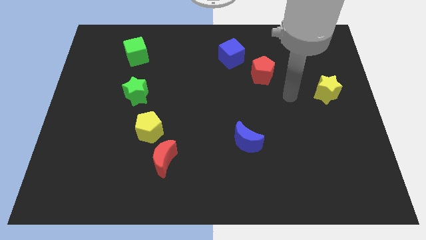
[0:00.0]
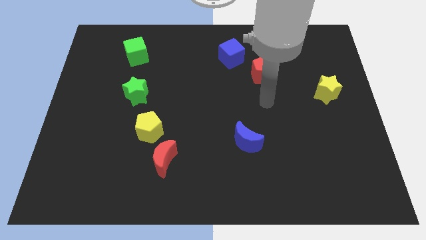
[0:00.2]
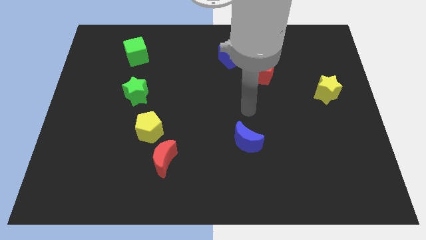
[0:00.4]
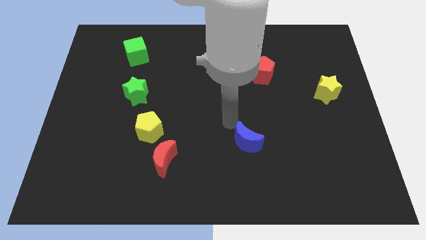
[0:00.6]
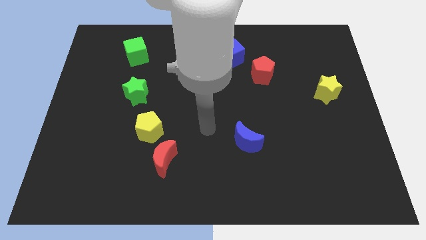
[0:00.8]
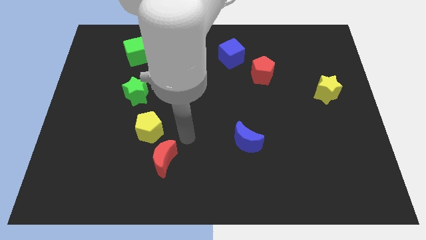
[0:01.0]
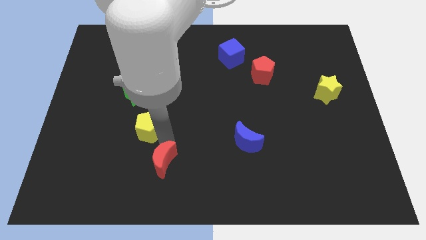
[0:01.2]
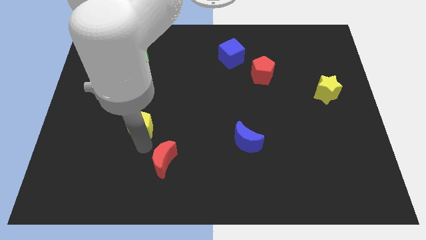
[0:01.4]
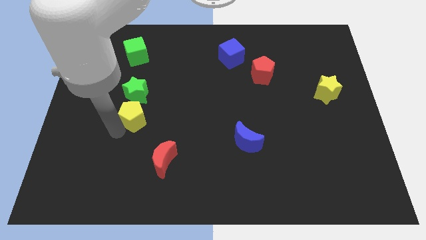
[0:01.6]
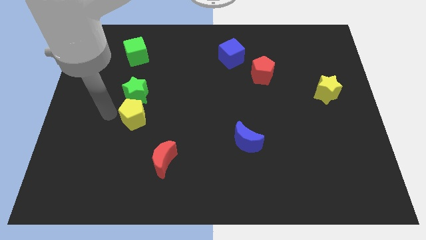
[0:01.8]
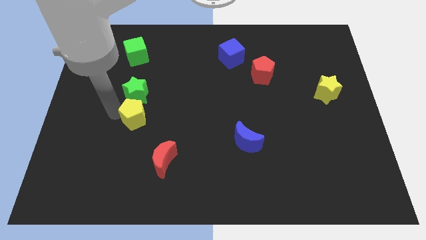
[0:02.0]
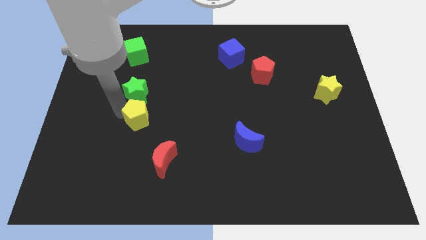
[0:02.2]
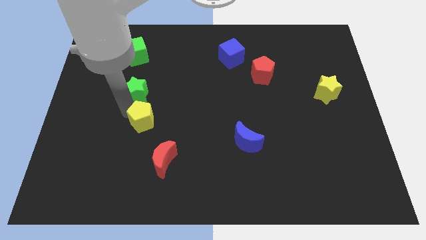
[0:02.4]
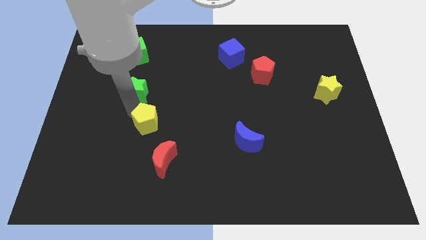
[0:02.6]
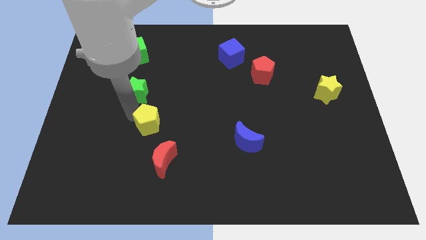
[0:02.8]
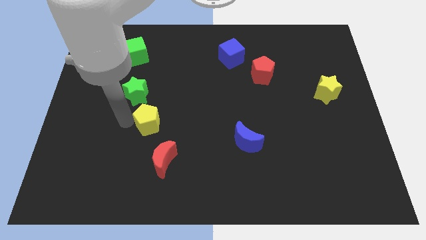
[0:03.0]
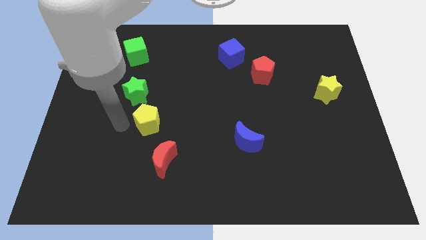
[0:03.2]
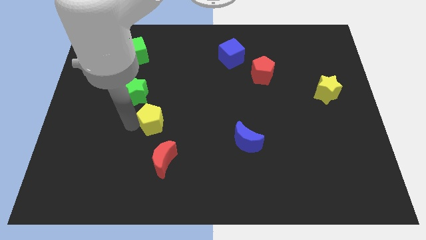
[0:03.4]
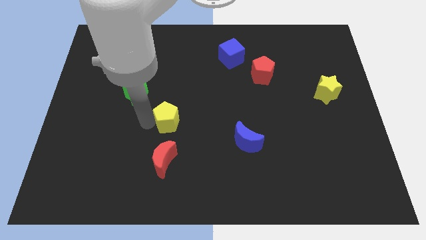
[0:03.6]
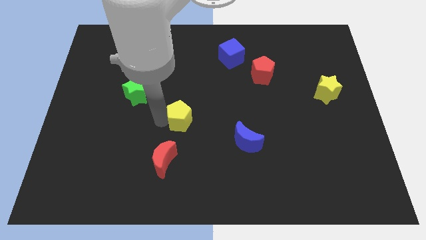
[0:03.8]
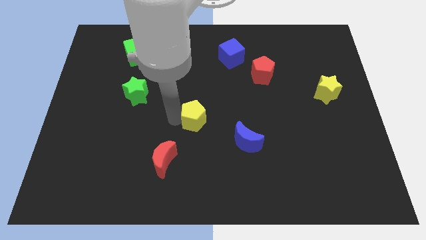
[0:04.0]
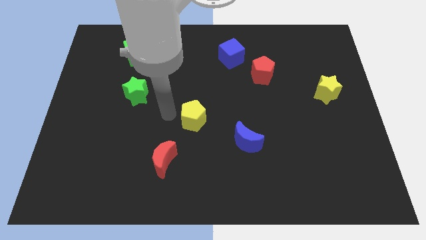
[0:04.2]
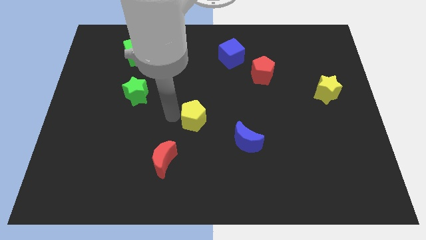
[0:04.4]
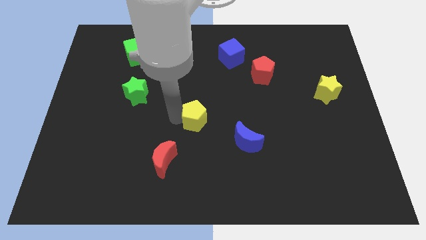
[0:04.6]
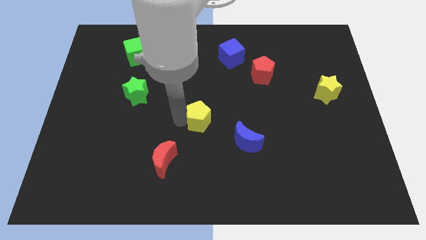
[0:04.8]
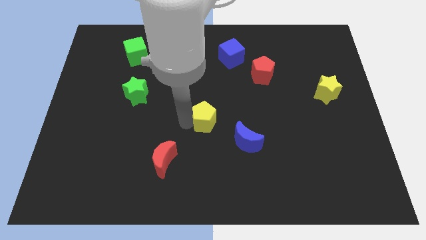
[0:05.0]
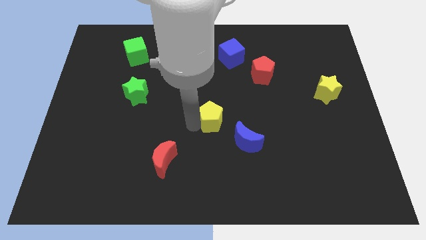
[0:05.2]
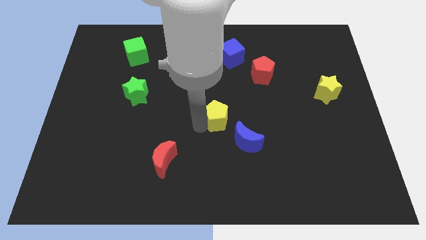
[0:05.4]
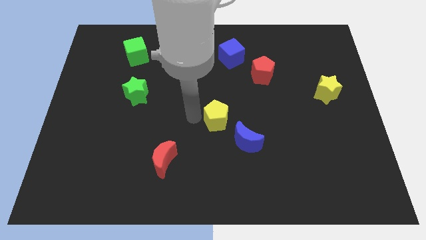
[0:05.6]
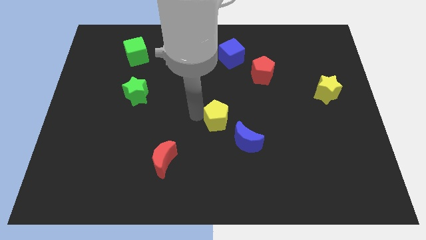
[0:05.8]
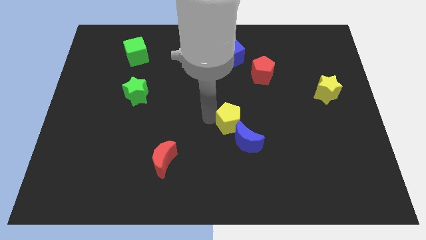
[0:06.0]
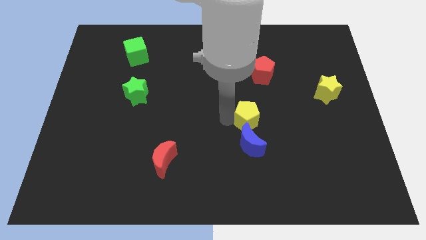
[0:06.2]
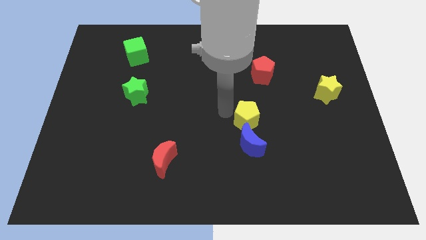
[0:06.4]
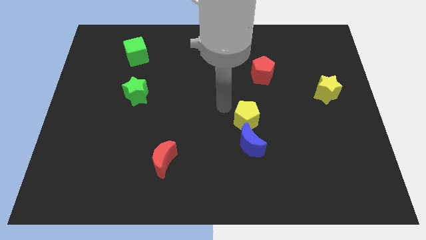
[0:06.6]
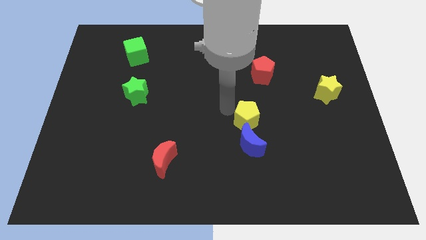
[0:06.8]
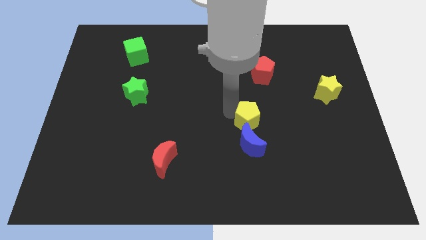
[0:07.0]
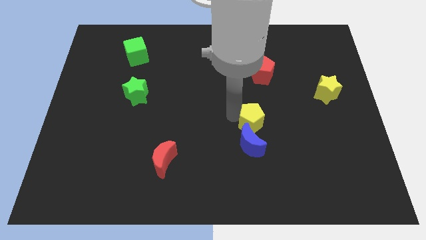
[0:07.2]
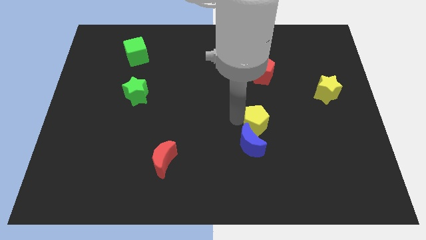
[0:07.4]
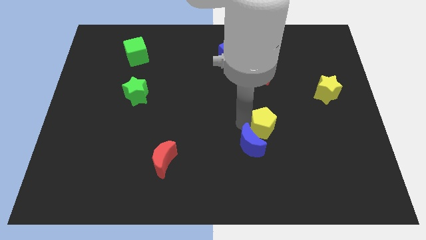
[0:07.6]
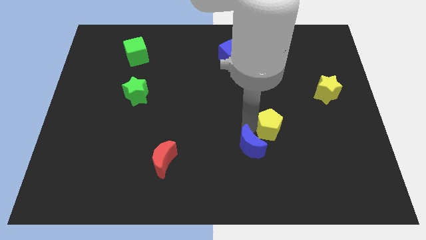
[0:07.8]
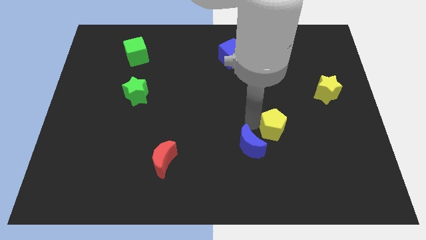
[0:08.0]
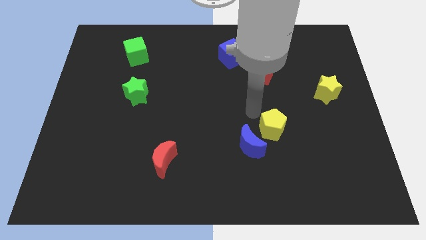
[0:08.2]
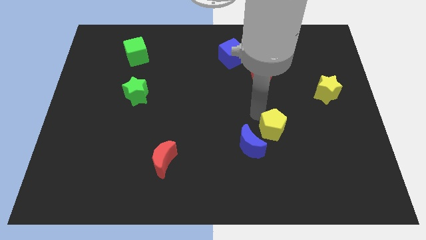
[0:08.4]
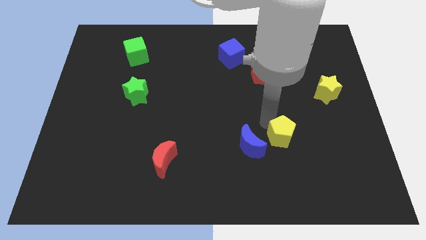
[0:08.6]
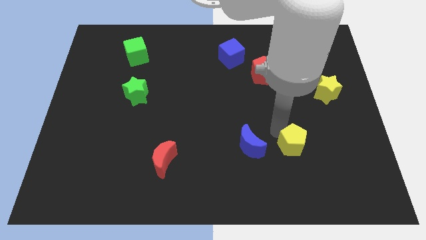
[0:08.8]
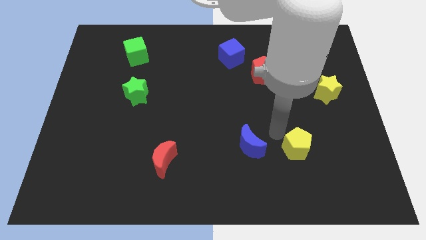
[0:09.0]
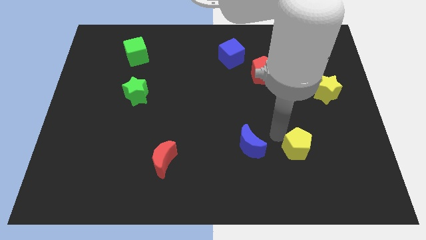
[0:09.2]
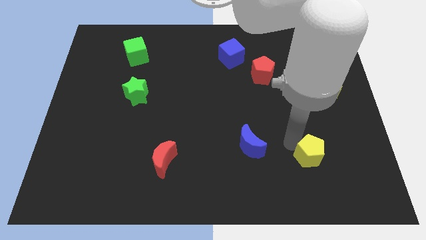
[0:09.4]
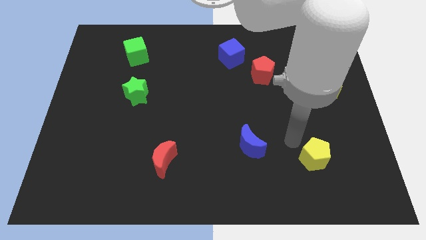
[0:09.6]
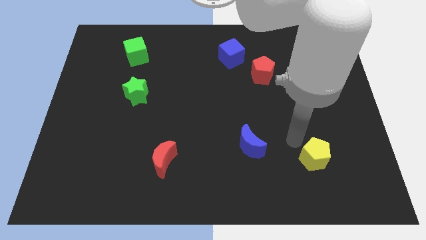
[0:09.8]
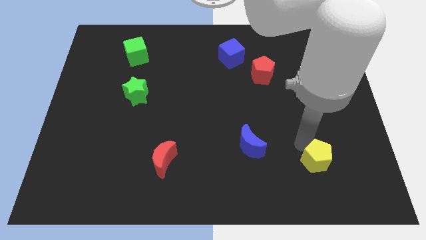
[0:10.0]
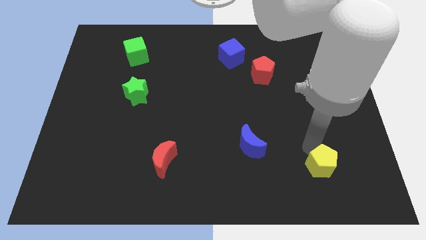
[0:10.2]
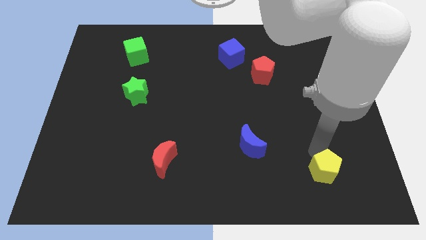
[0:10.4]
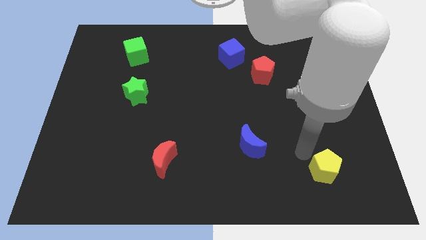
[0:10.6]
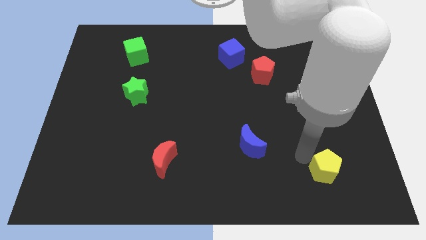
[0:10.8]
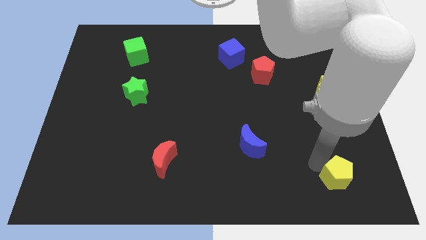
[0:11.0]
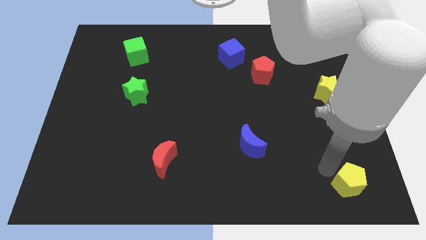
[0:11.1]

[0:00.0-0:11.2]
push the yellow pentagon to the bottom right corner
